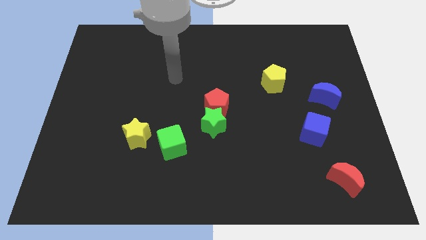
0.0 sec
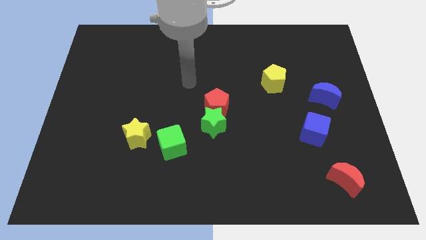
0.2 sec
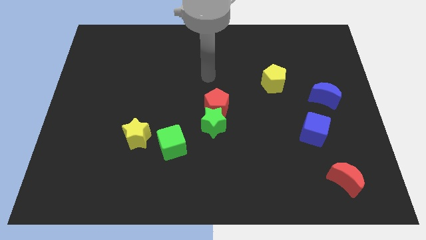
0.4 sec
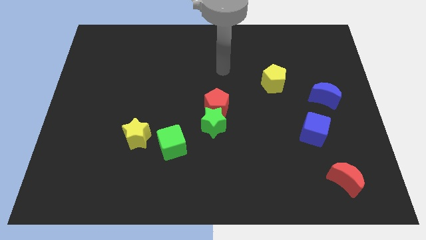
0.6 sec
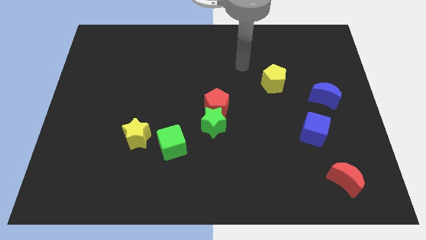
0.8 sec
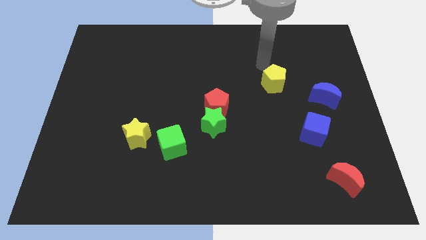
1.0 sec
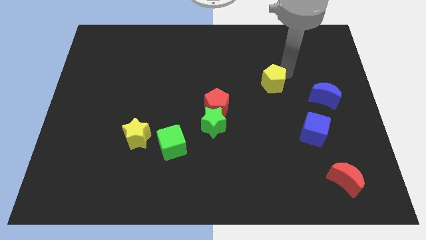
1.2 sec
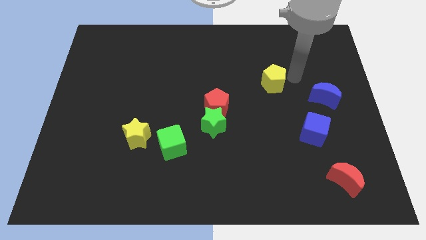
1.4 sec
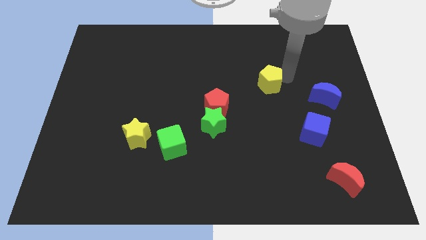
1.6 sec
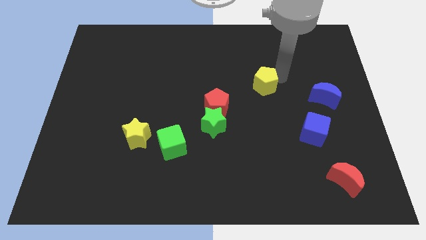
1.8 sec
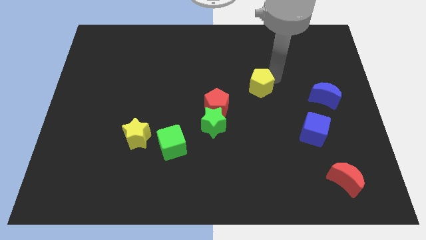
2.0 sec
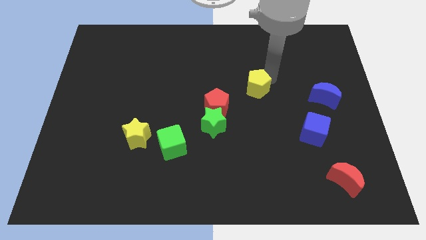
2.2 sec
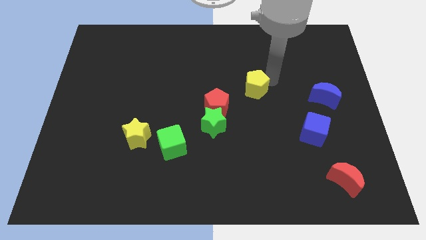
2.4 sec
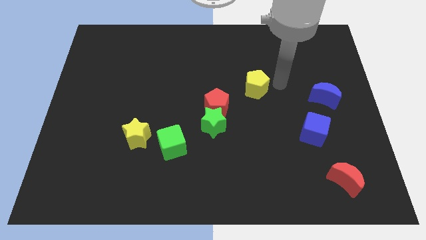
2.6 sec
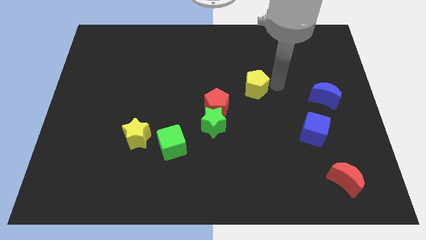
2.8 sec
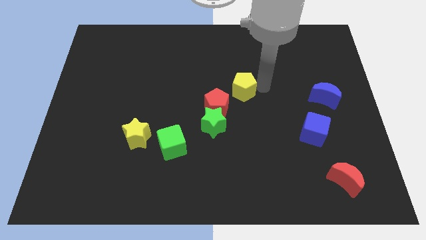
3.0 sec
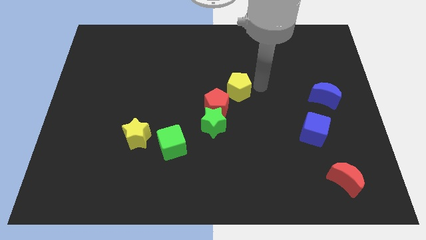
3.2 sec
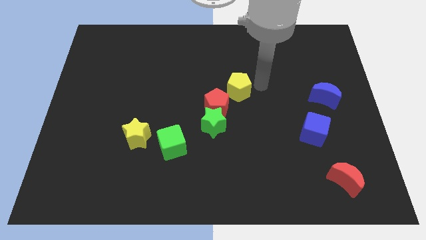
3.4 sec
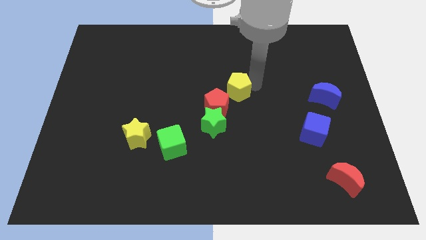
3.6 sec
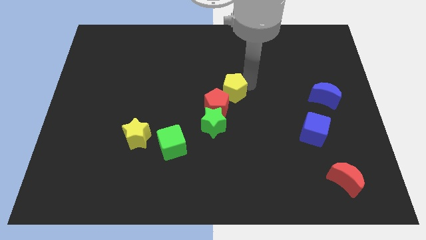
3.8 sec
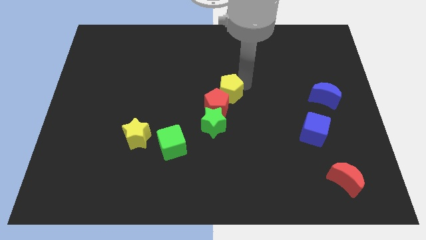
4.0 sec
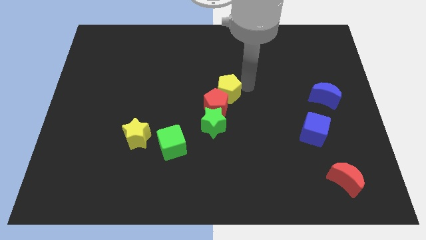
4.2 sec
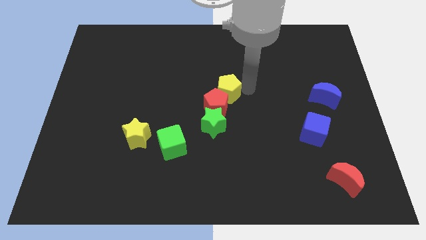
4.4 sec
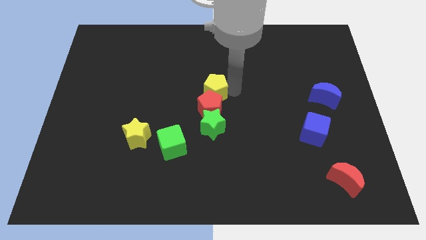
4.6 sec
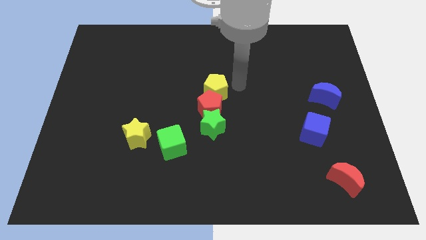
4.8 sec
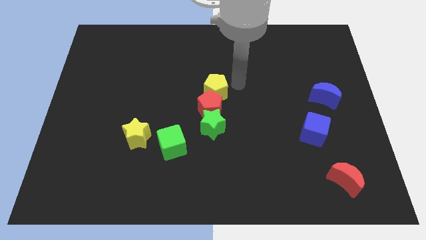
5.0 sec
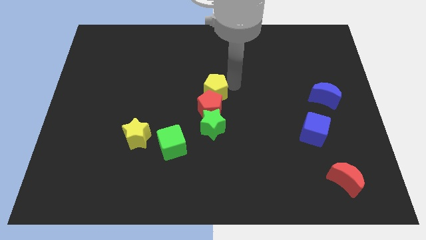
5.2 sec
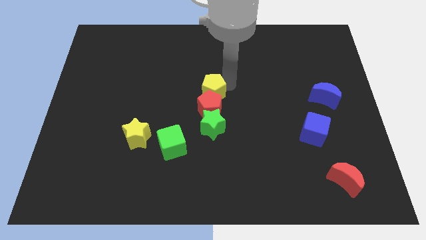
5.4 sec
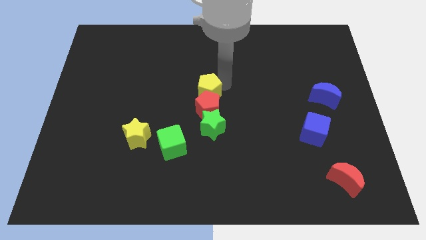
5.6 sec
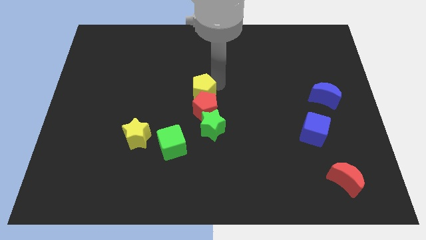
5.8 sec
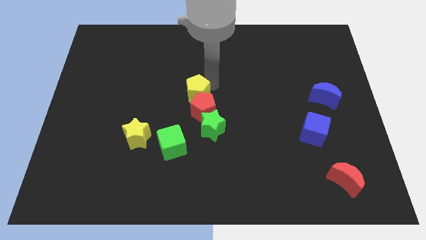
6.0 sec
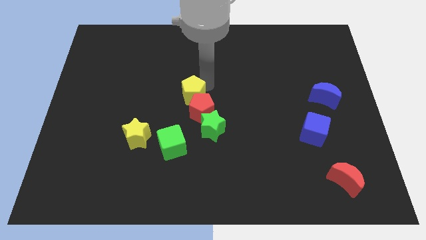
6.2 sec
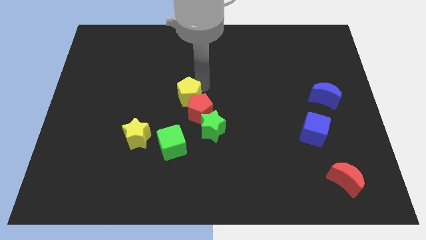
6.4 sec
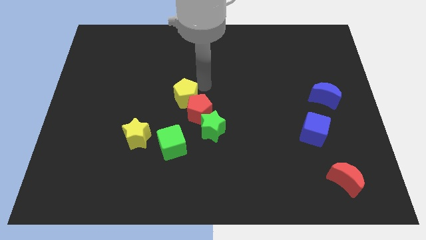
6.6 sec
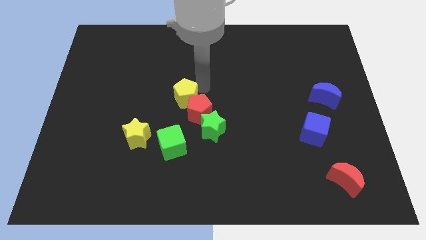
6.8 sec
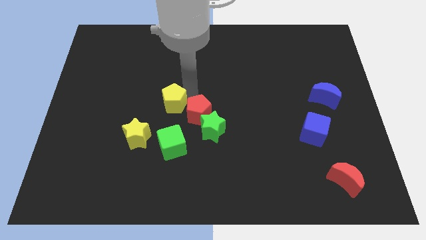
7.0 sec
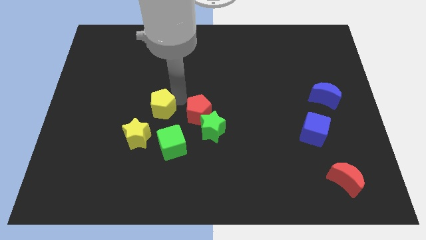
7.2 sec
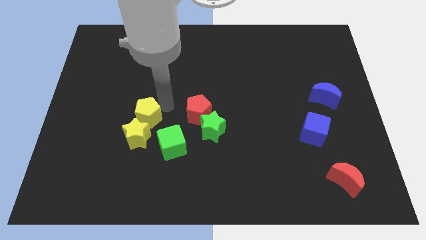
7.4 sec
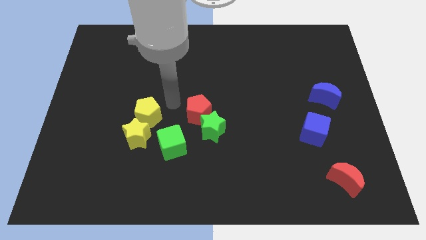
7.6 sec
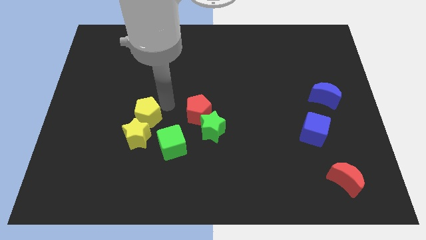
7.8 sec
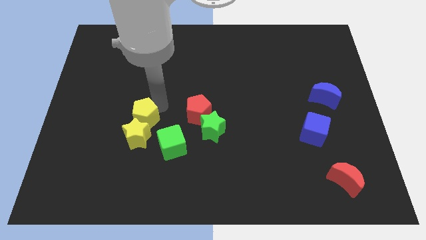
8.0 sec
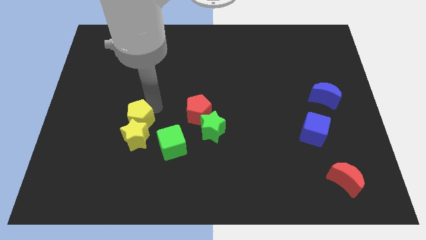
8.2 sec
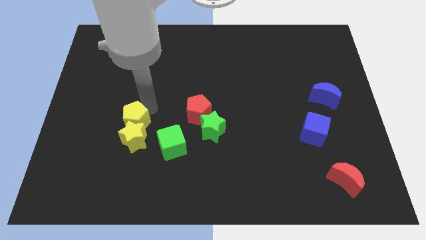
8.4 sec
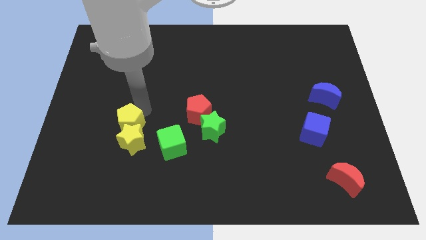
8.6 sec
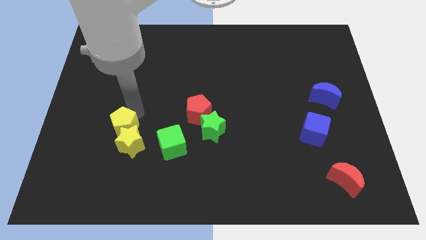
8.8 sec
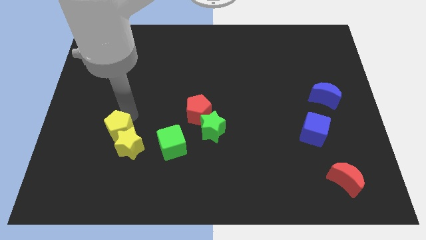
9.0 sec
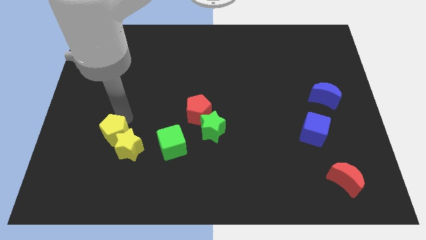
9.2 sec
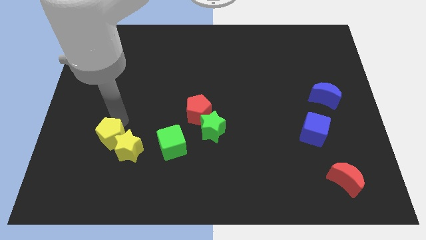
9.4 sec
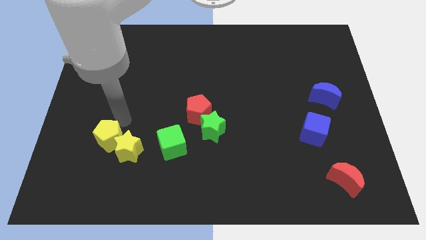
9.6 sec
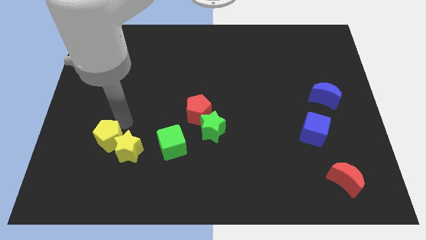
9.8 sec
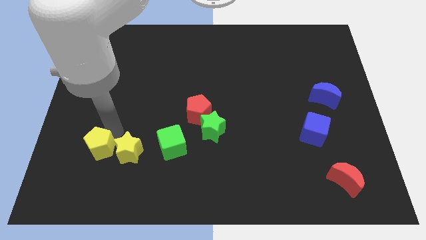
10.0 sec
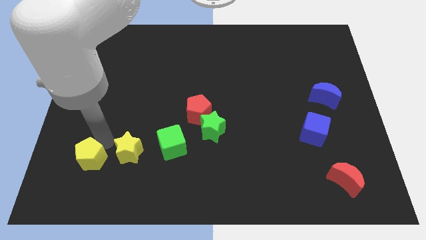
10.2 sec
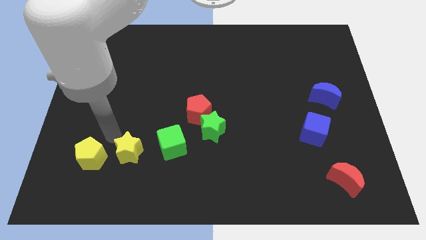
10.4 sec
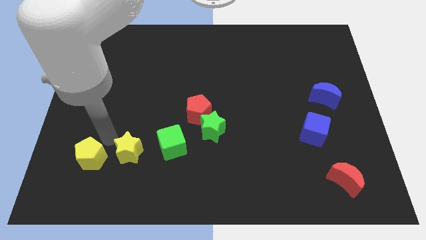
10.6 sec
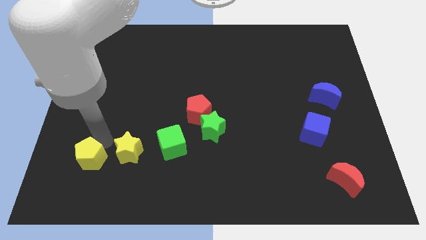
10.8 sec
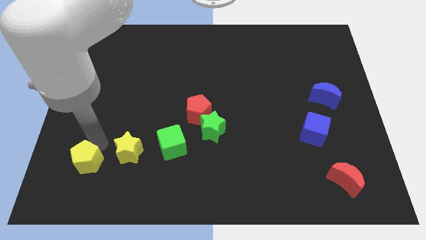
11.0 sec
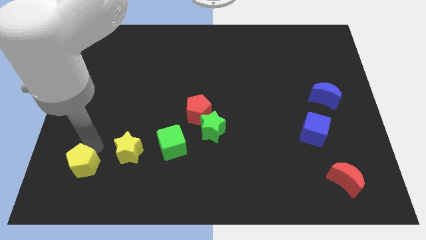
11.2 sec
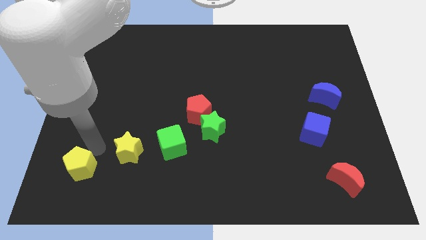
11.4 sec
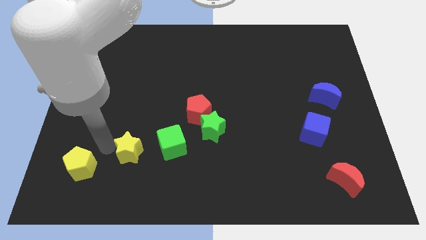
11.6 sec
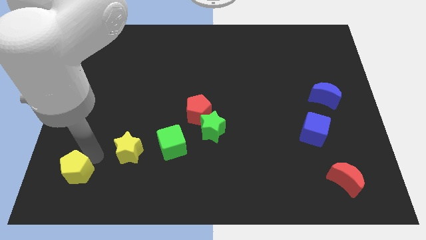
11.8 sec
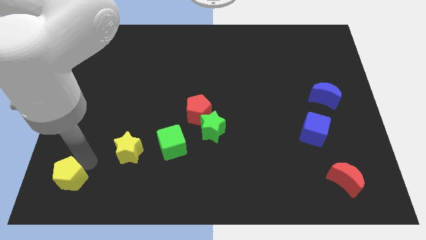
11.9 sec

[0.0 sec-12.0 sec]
push the yellow pentagon to the bottom left of the board
